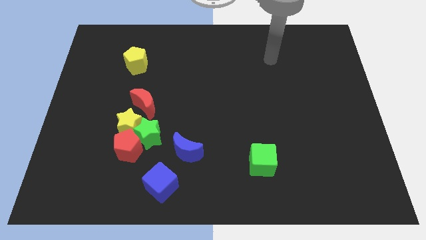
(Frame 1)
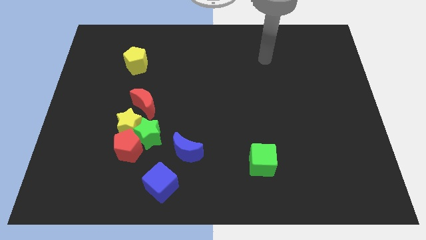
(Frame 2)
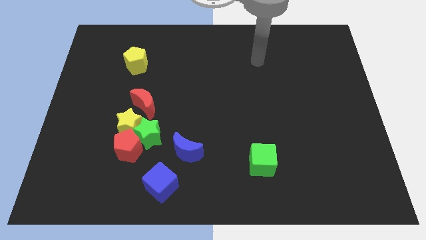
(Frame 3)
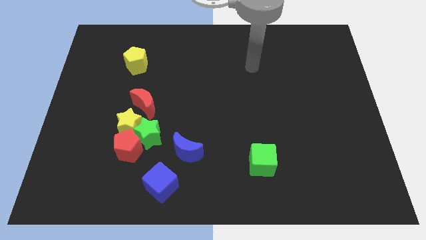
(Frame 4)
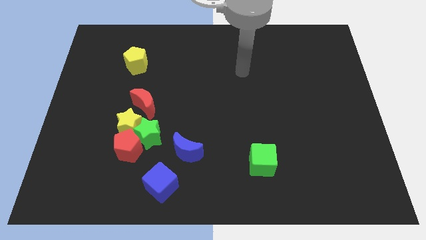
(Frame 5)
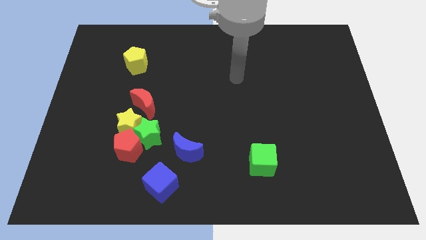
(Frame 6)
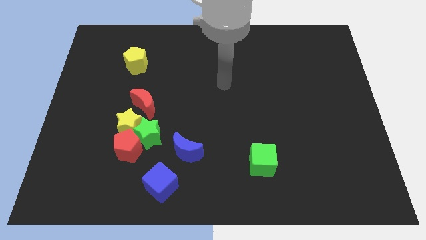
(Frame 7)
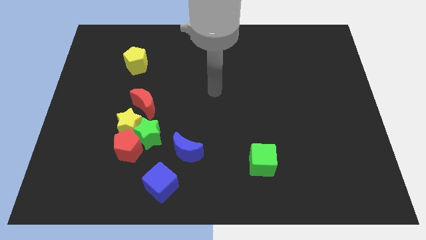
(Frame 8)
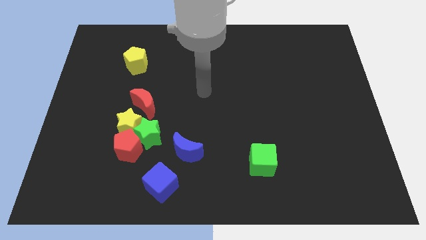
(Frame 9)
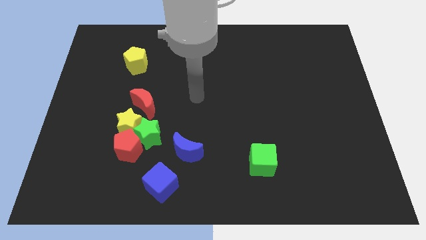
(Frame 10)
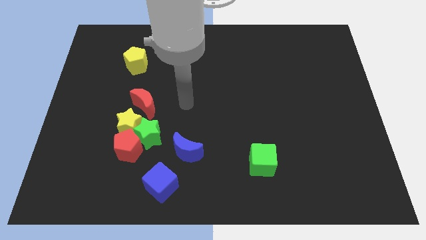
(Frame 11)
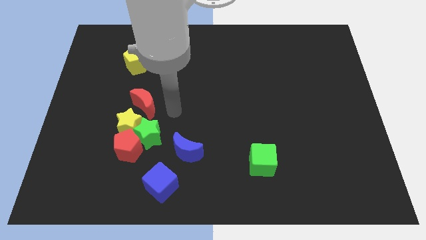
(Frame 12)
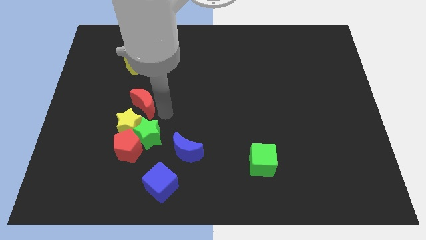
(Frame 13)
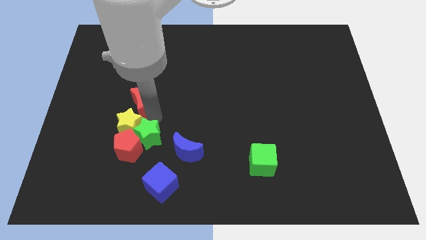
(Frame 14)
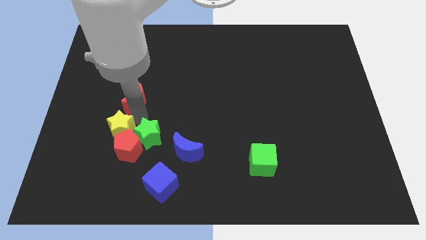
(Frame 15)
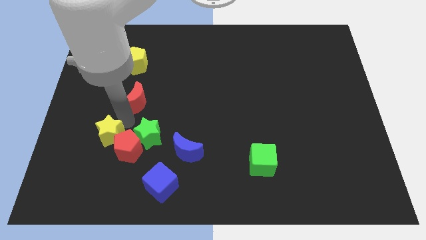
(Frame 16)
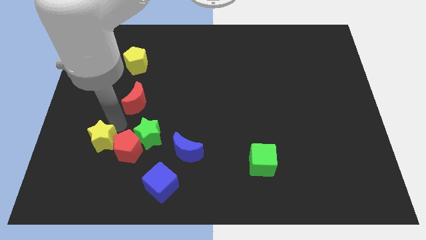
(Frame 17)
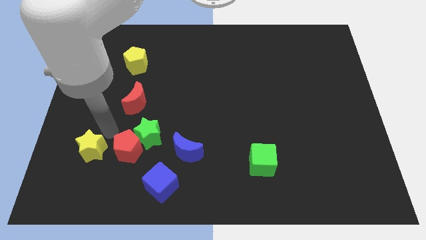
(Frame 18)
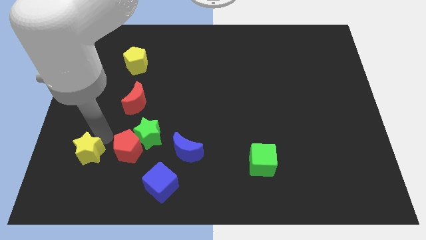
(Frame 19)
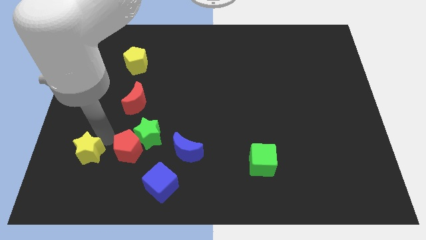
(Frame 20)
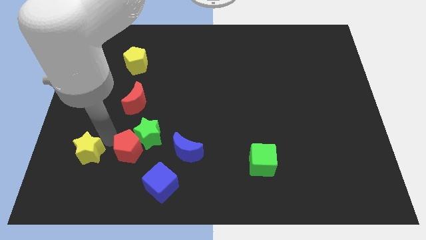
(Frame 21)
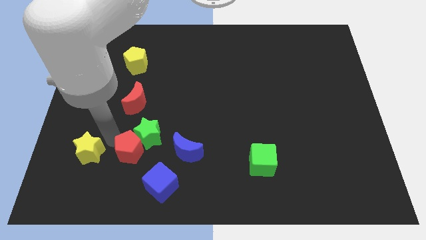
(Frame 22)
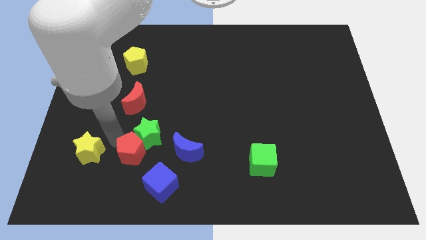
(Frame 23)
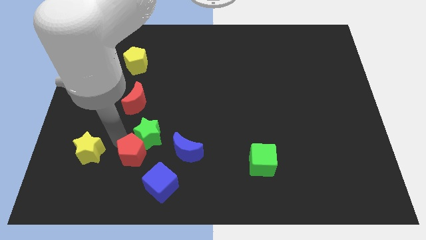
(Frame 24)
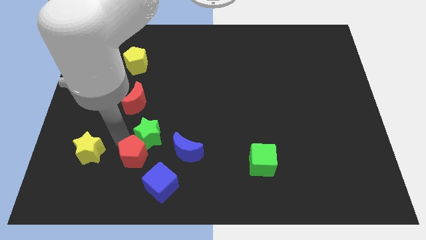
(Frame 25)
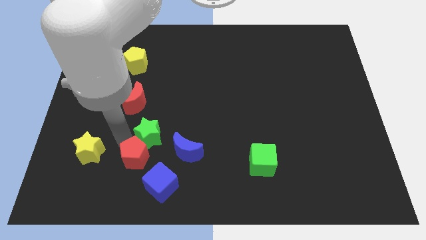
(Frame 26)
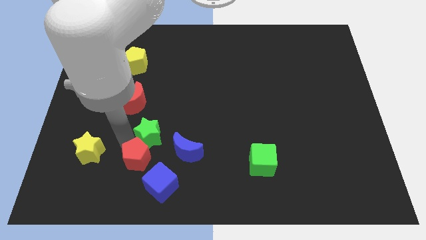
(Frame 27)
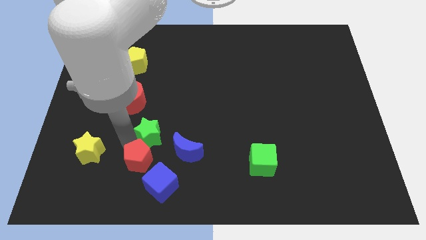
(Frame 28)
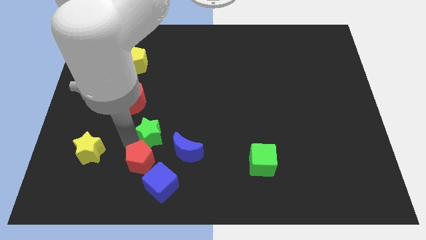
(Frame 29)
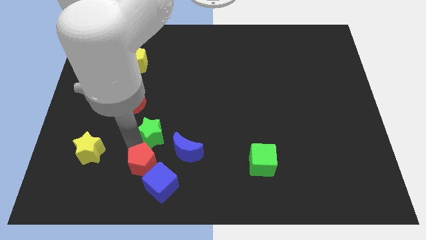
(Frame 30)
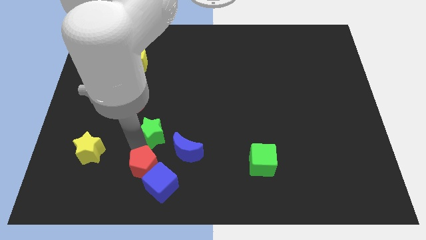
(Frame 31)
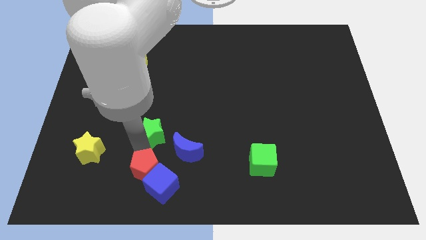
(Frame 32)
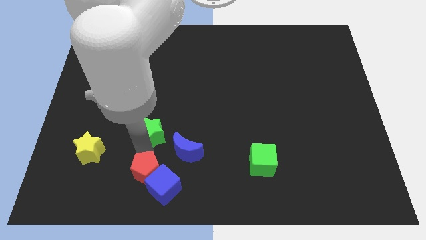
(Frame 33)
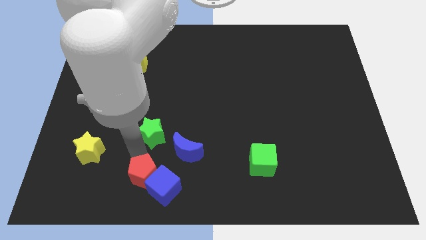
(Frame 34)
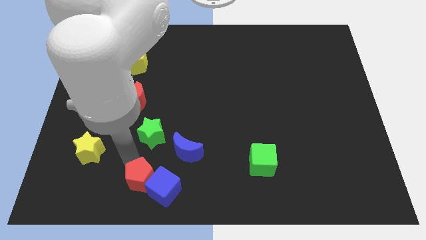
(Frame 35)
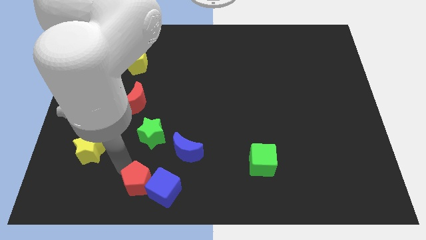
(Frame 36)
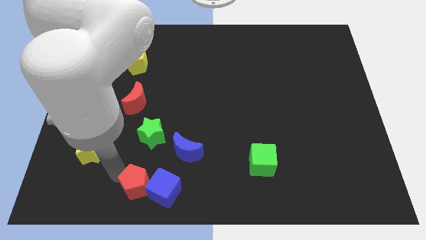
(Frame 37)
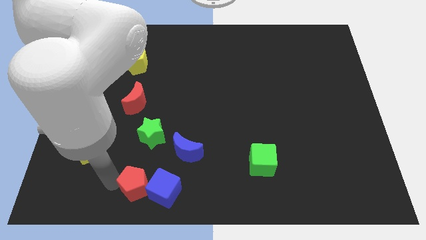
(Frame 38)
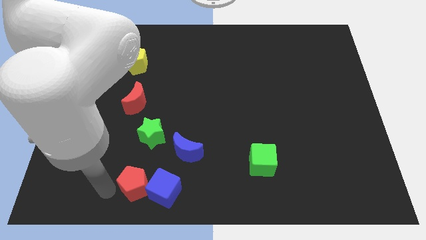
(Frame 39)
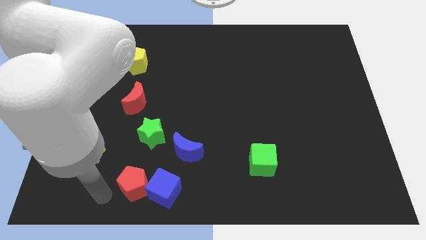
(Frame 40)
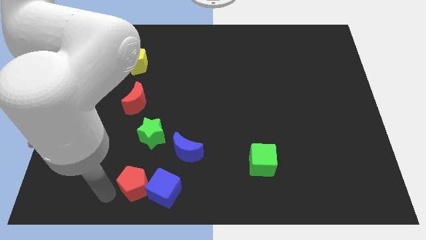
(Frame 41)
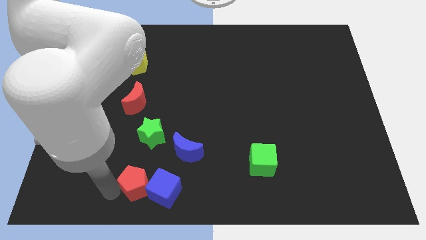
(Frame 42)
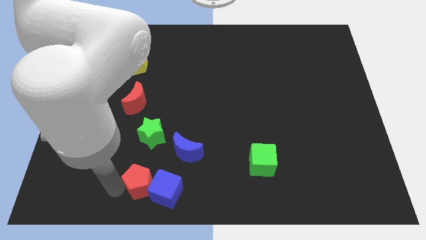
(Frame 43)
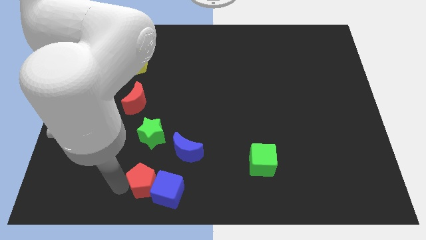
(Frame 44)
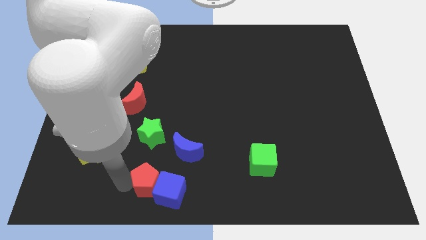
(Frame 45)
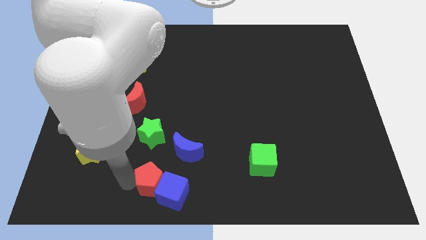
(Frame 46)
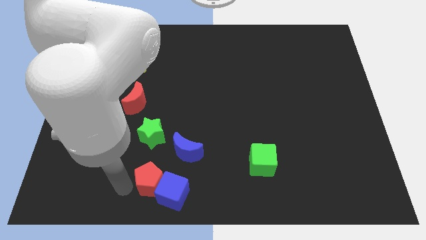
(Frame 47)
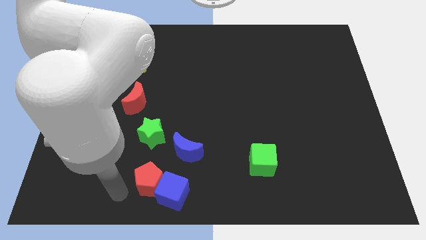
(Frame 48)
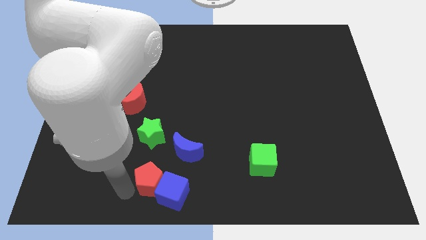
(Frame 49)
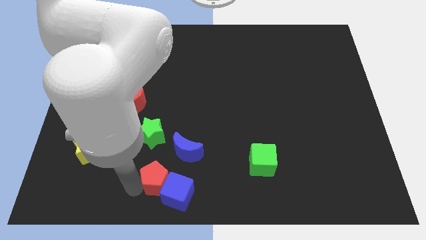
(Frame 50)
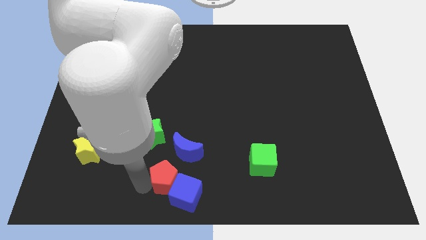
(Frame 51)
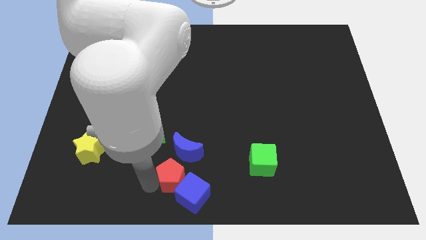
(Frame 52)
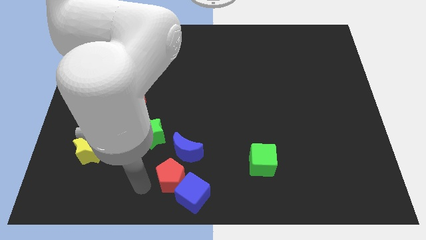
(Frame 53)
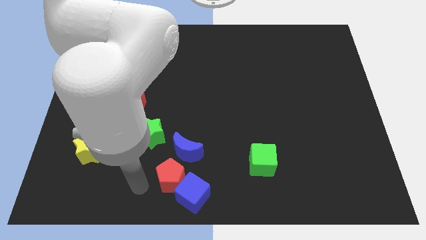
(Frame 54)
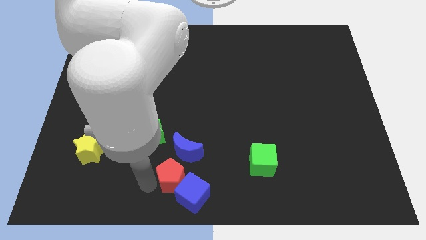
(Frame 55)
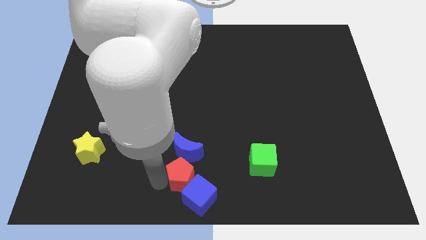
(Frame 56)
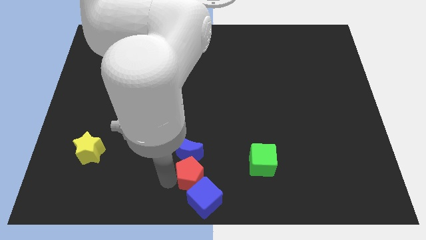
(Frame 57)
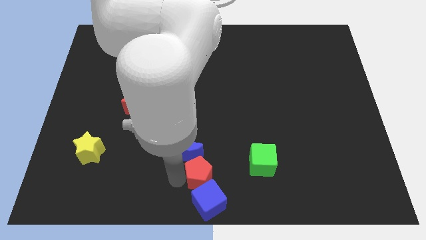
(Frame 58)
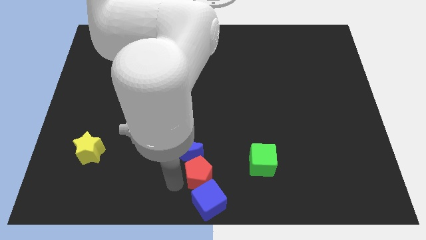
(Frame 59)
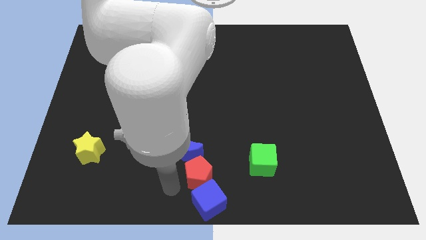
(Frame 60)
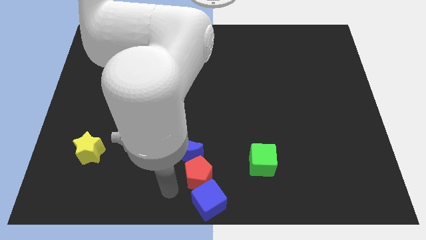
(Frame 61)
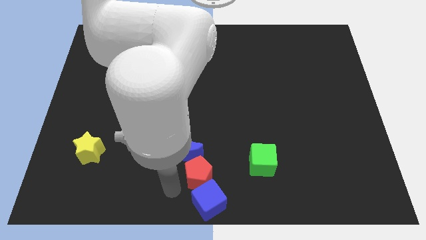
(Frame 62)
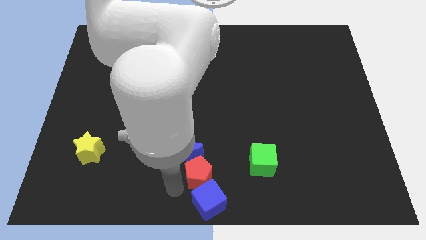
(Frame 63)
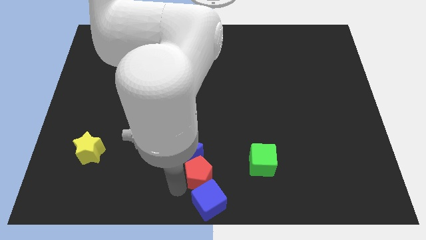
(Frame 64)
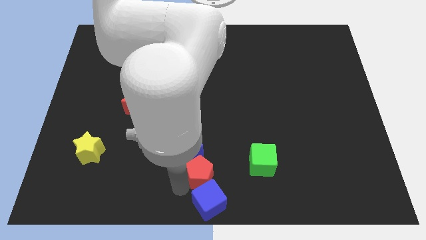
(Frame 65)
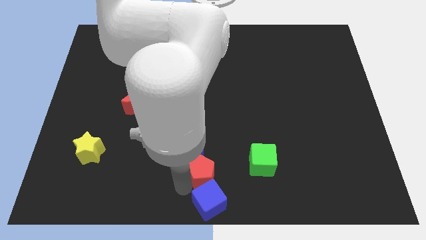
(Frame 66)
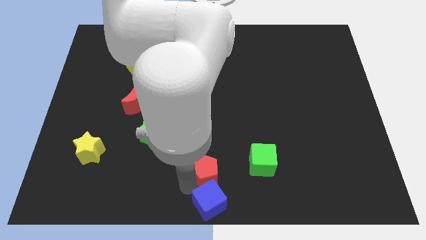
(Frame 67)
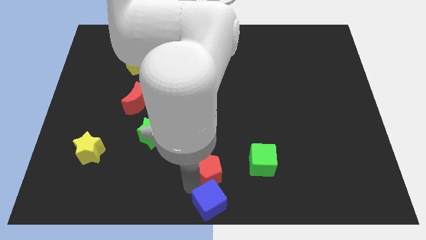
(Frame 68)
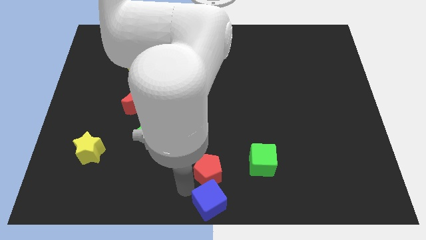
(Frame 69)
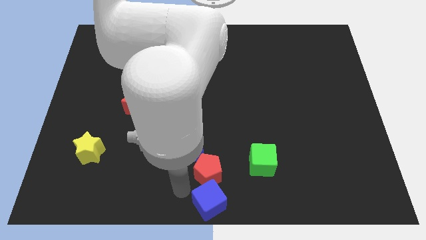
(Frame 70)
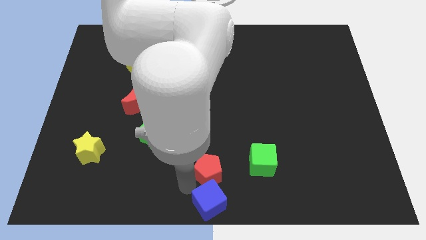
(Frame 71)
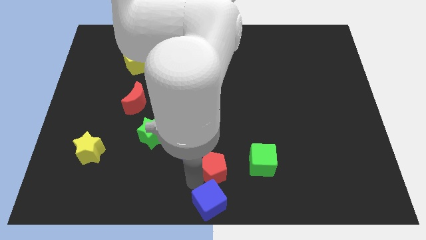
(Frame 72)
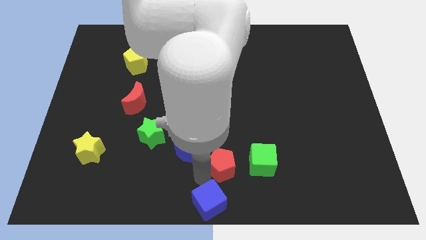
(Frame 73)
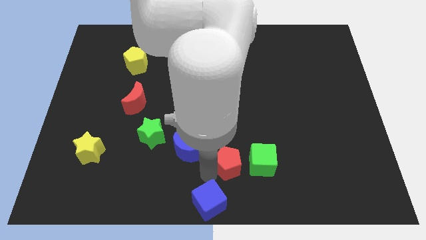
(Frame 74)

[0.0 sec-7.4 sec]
slide the red pentagon right

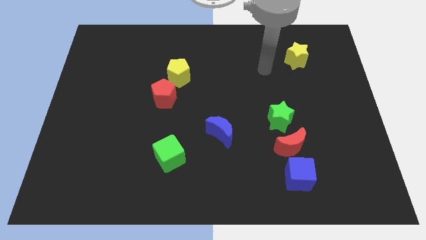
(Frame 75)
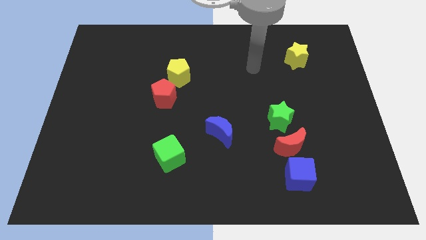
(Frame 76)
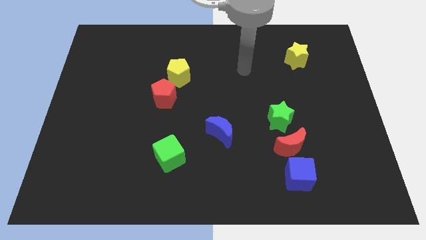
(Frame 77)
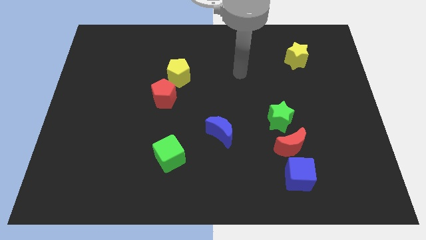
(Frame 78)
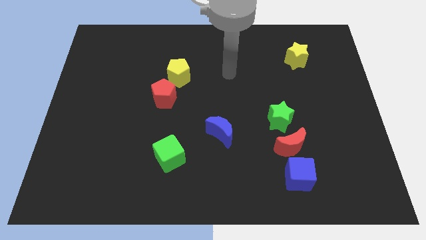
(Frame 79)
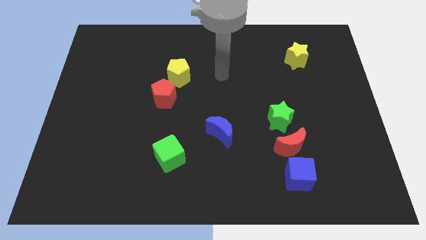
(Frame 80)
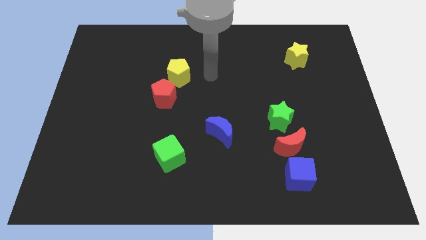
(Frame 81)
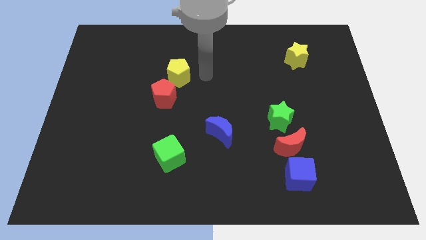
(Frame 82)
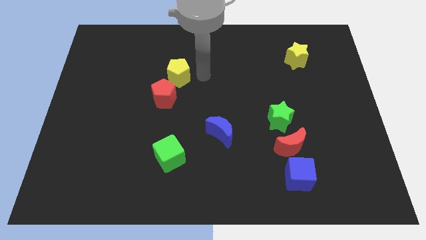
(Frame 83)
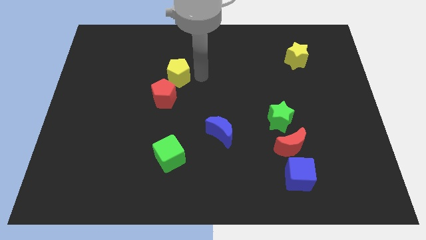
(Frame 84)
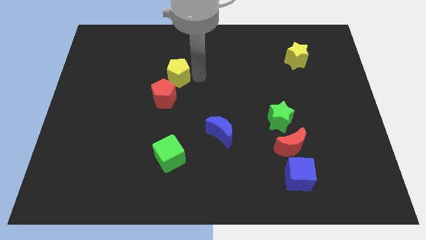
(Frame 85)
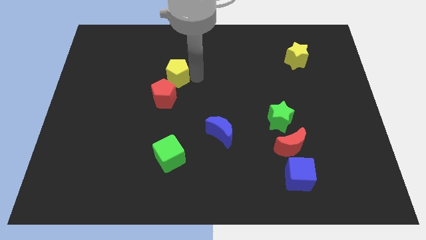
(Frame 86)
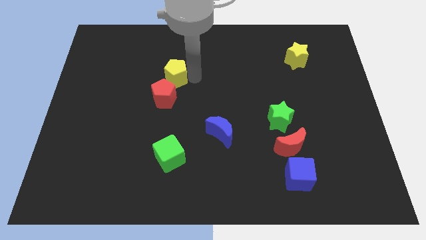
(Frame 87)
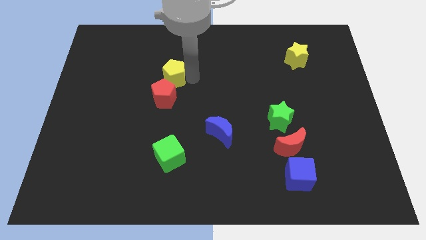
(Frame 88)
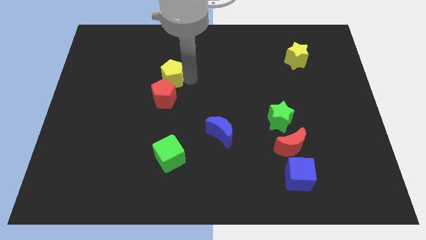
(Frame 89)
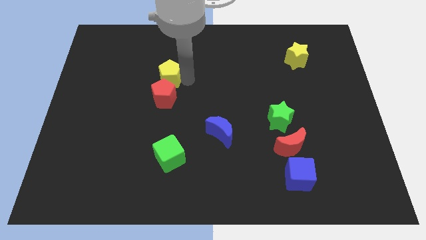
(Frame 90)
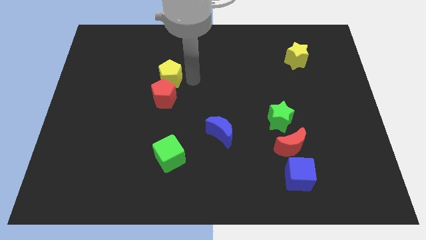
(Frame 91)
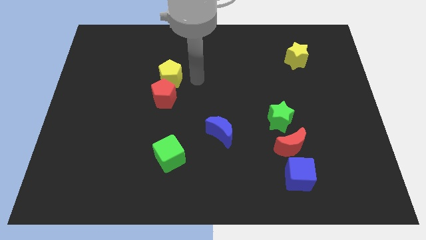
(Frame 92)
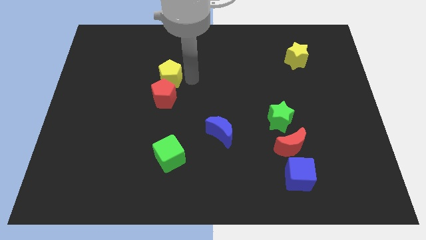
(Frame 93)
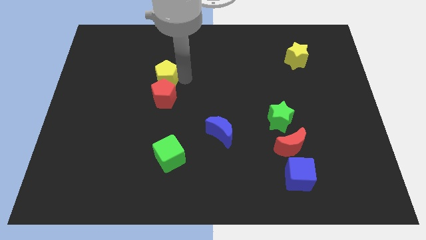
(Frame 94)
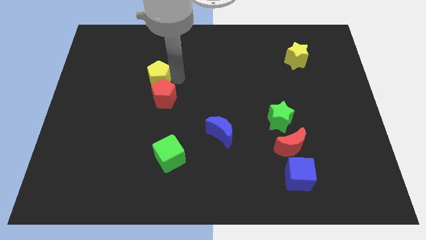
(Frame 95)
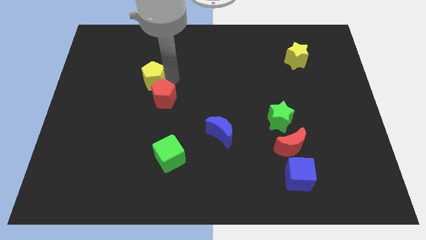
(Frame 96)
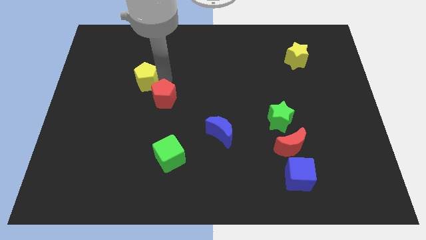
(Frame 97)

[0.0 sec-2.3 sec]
slightly slide the yellow pentagon left
